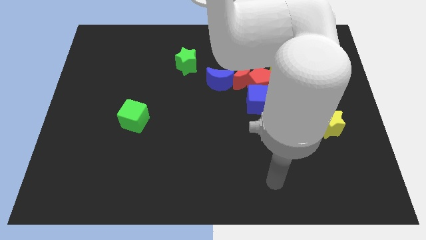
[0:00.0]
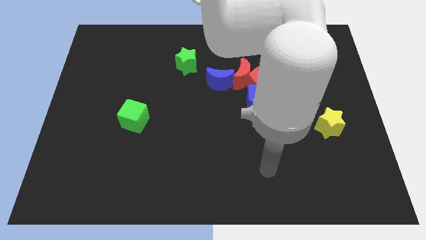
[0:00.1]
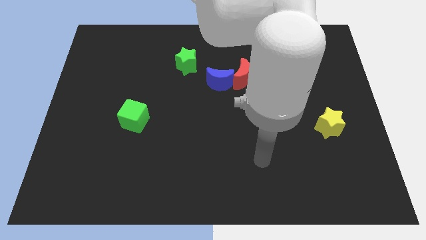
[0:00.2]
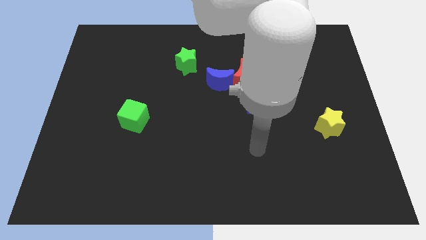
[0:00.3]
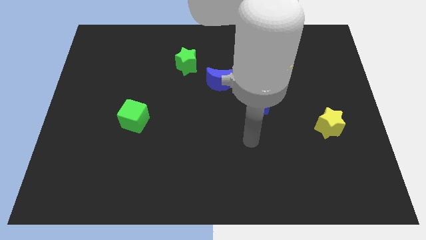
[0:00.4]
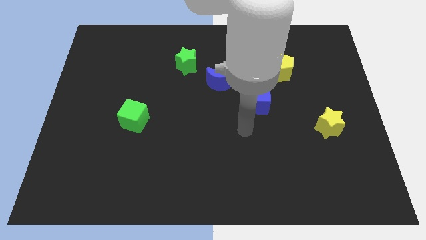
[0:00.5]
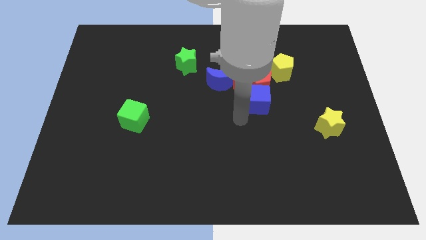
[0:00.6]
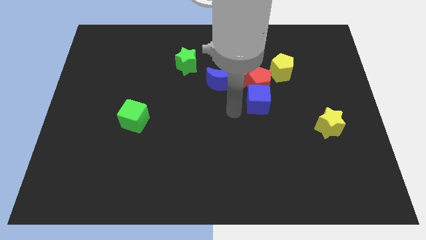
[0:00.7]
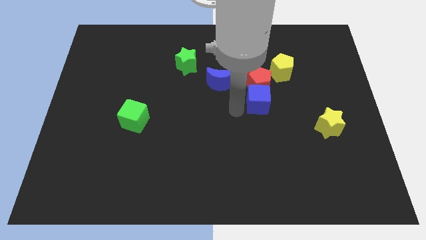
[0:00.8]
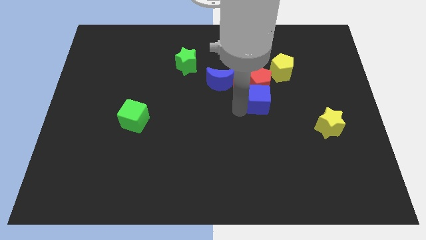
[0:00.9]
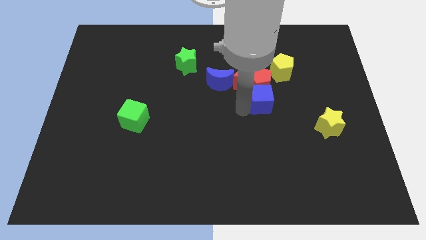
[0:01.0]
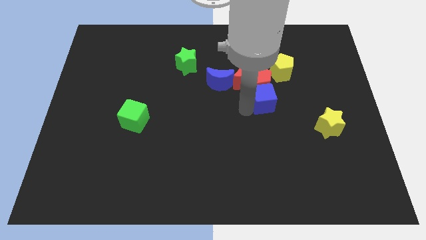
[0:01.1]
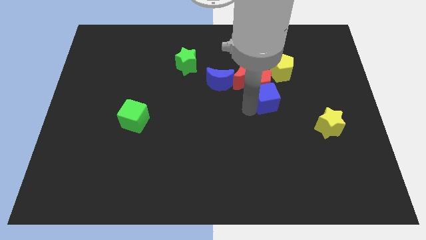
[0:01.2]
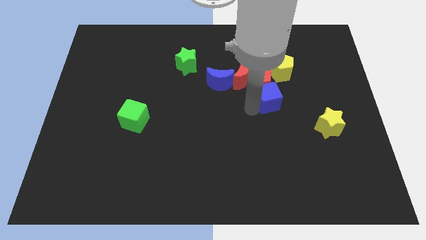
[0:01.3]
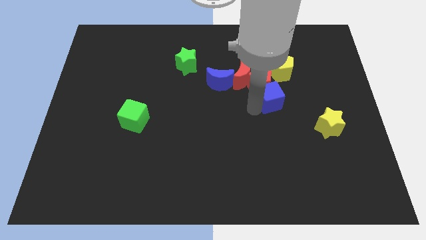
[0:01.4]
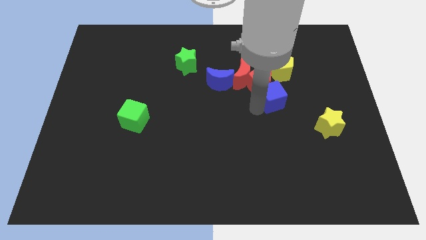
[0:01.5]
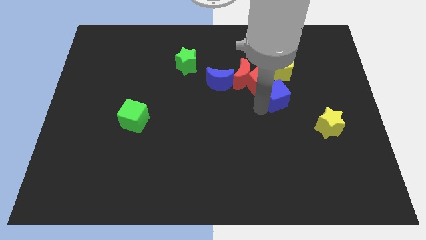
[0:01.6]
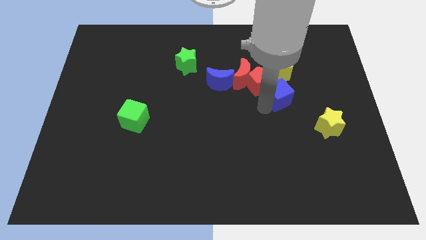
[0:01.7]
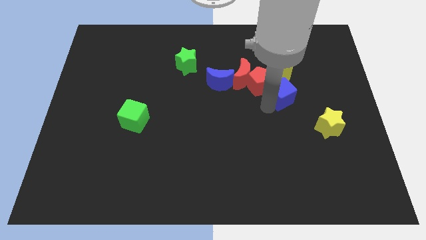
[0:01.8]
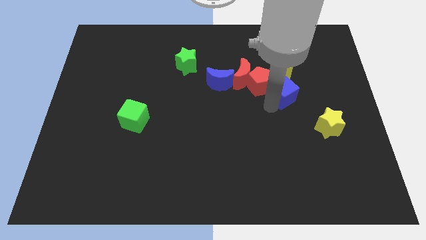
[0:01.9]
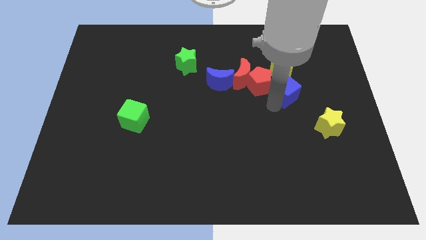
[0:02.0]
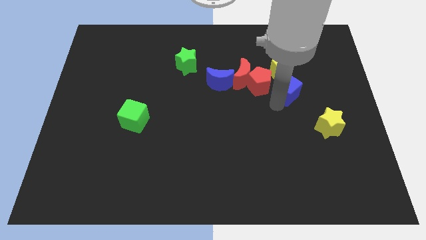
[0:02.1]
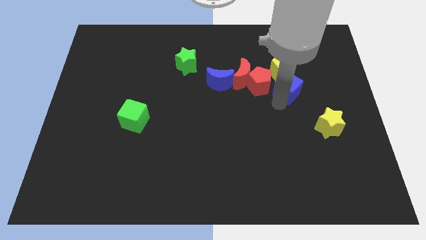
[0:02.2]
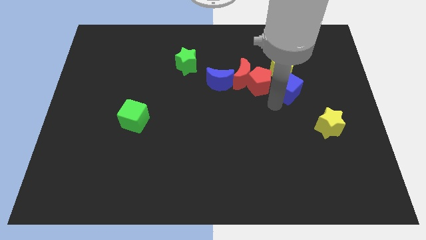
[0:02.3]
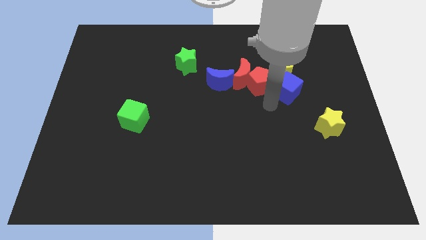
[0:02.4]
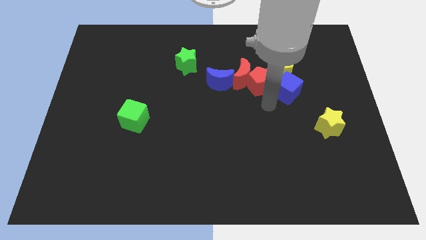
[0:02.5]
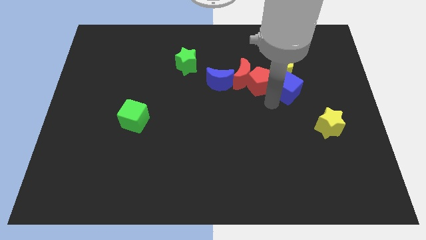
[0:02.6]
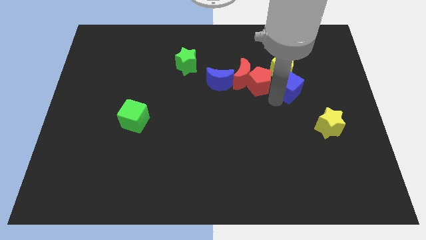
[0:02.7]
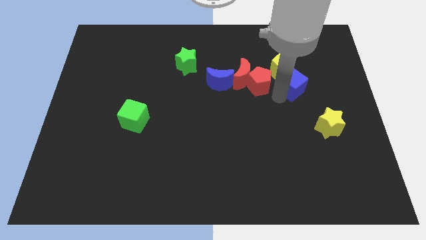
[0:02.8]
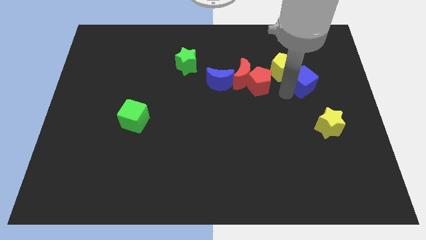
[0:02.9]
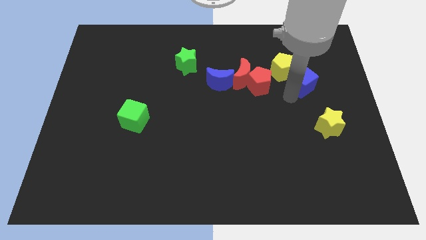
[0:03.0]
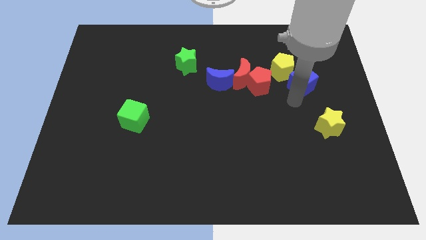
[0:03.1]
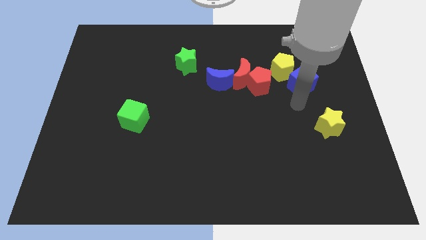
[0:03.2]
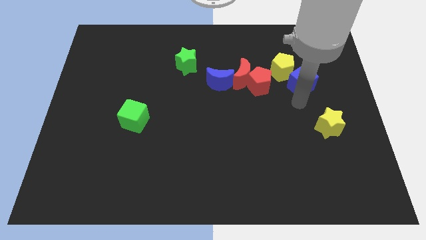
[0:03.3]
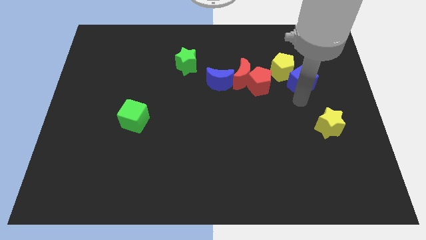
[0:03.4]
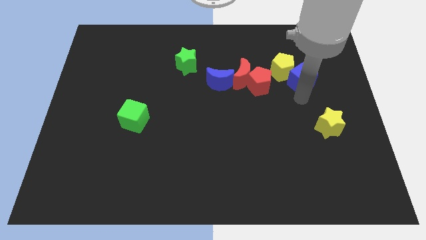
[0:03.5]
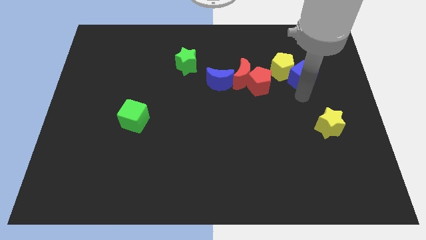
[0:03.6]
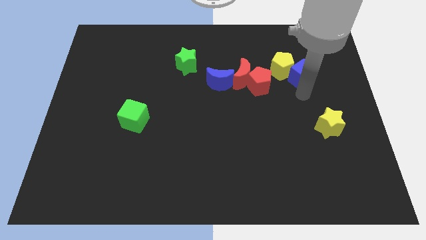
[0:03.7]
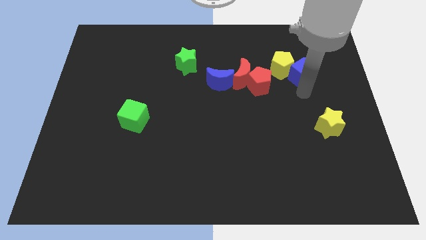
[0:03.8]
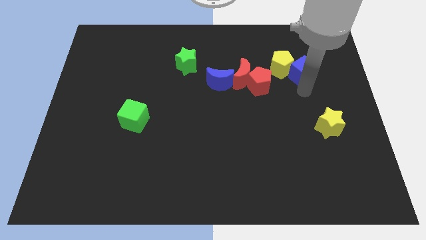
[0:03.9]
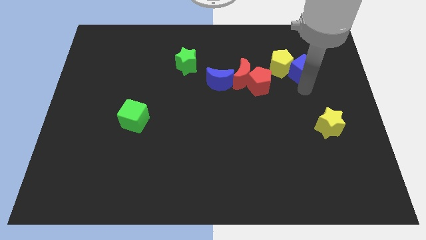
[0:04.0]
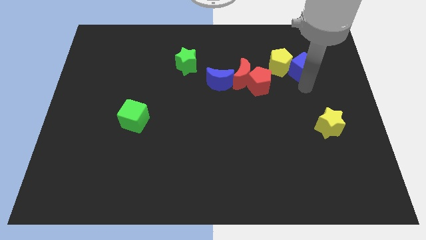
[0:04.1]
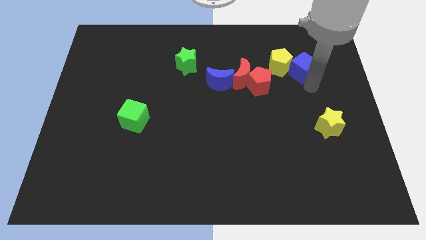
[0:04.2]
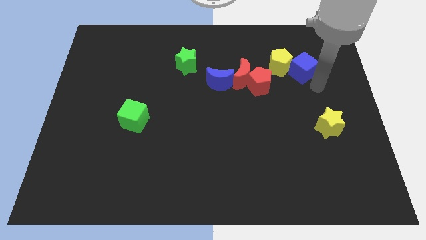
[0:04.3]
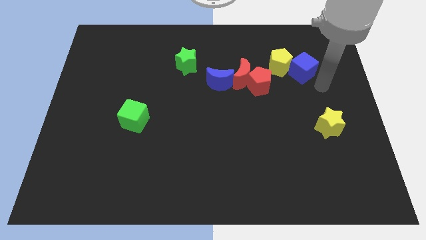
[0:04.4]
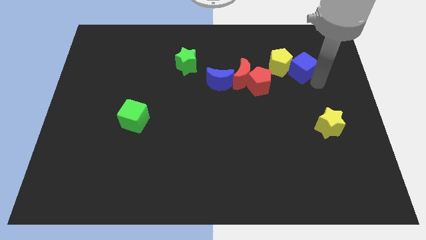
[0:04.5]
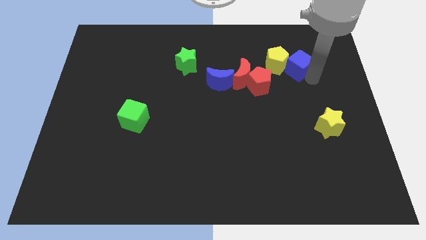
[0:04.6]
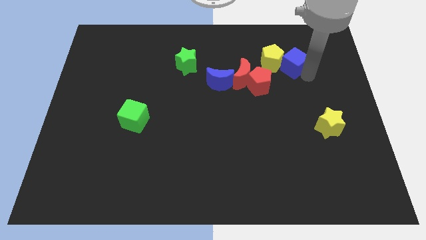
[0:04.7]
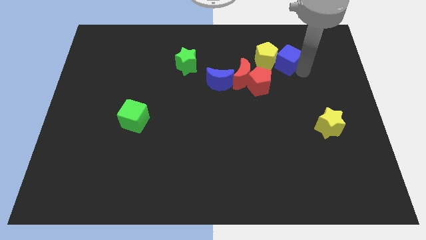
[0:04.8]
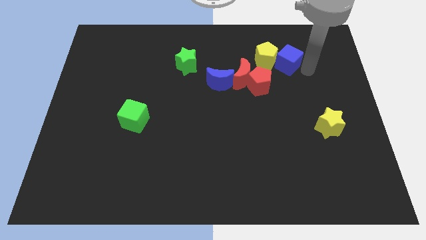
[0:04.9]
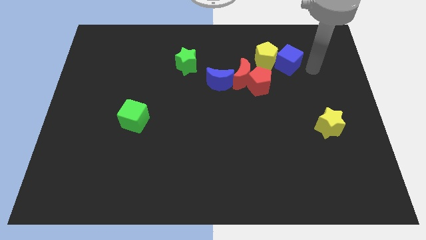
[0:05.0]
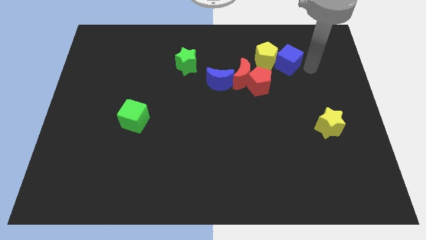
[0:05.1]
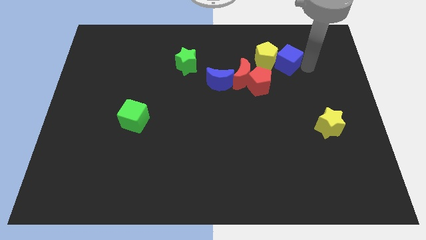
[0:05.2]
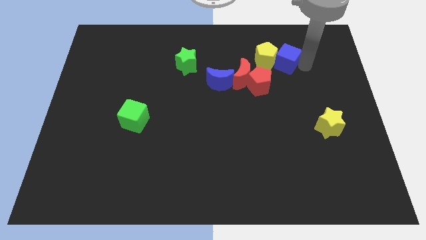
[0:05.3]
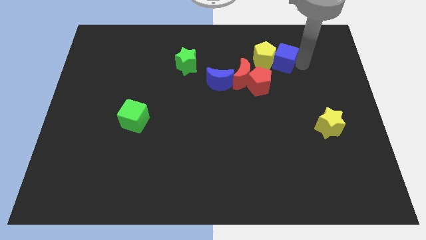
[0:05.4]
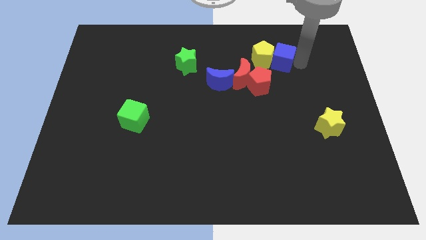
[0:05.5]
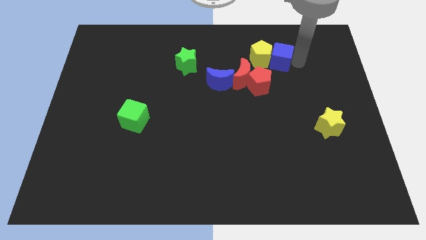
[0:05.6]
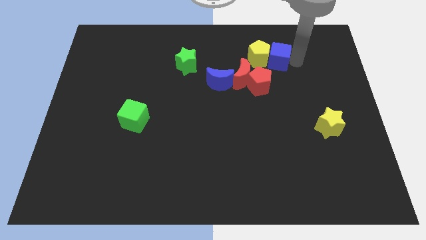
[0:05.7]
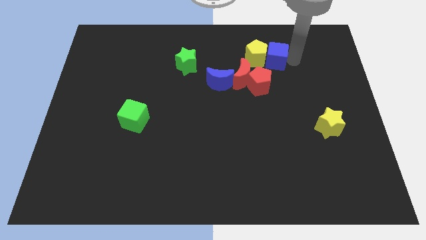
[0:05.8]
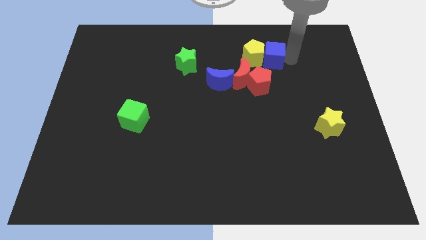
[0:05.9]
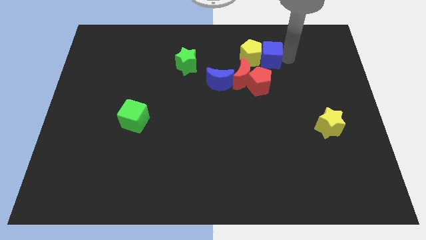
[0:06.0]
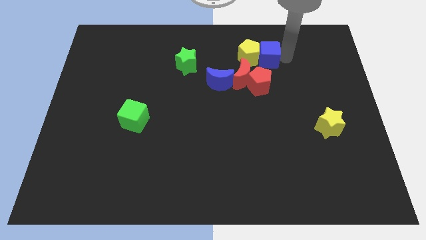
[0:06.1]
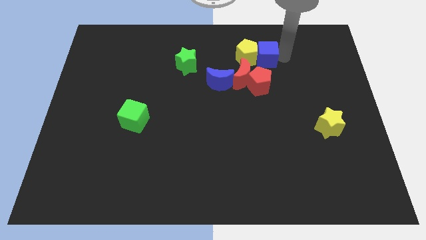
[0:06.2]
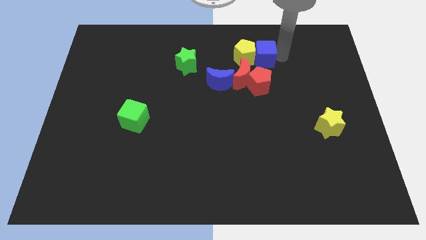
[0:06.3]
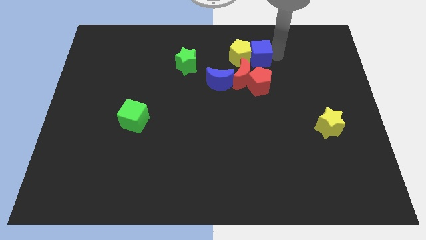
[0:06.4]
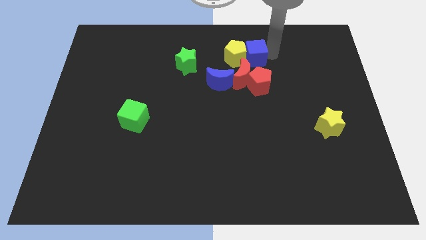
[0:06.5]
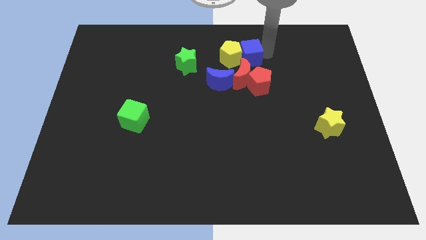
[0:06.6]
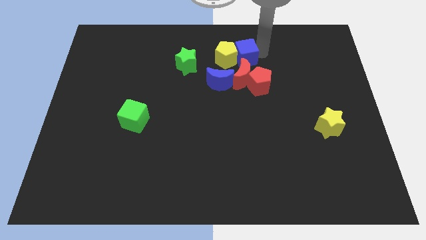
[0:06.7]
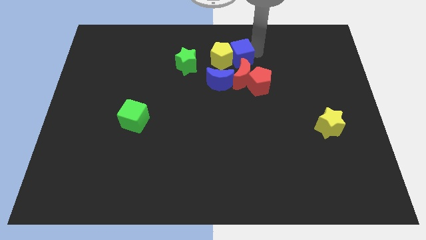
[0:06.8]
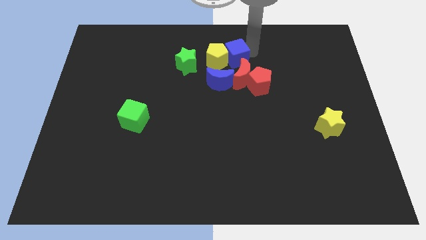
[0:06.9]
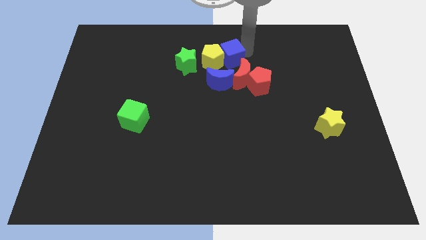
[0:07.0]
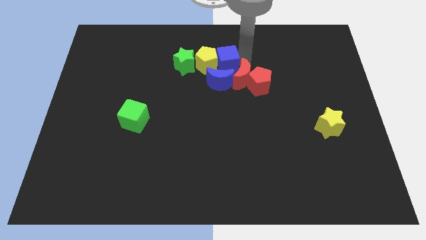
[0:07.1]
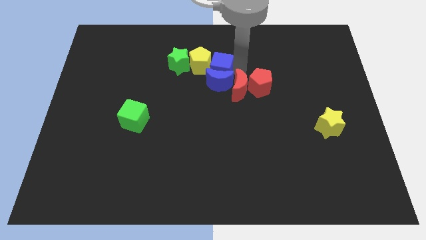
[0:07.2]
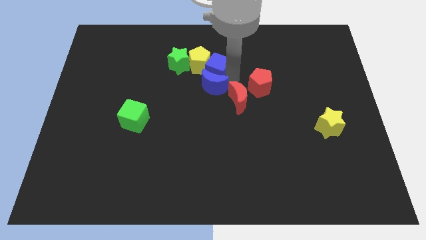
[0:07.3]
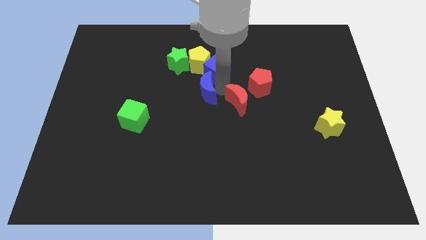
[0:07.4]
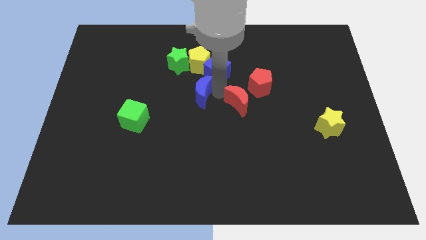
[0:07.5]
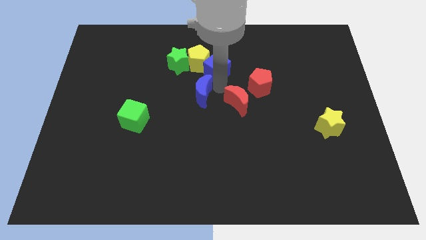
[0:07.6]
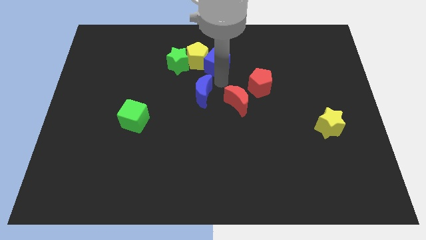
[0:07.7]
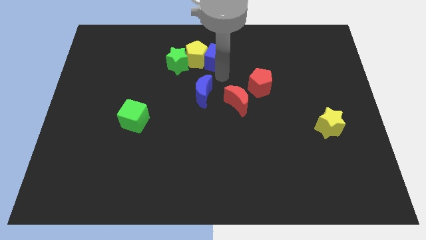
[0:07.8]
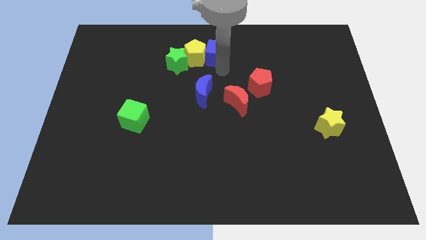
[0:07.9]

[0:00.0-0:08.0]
push the blue cube to the towards your base
